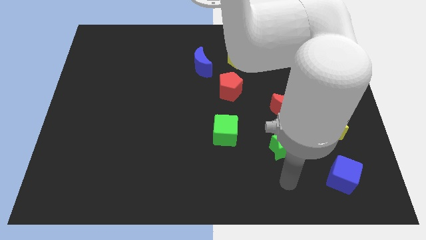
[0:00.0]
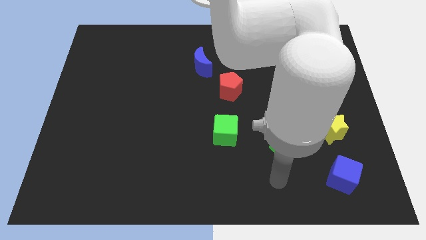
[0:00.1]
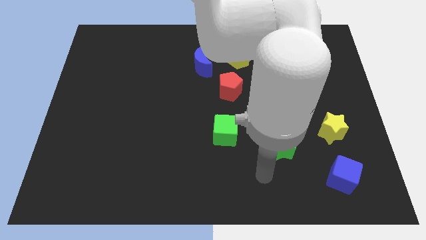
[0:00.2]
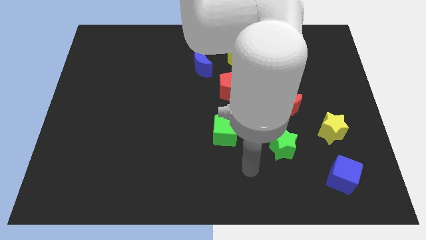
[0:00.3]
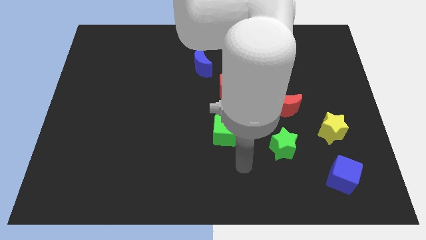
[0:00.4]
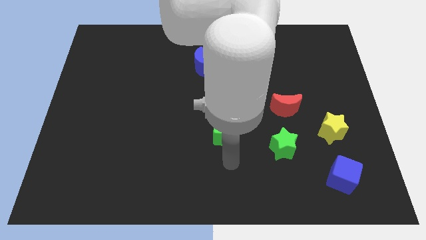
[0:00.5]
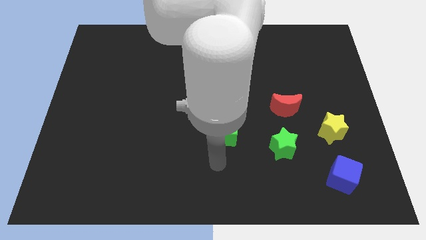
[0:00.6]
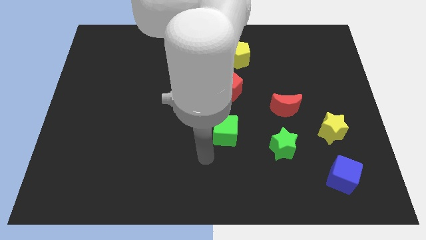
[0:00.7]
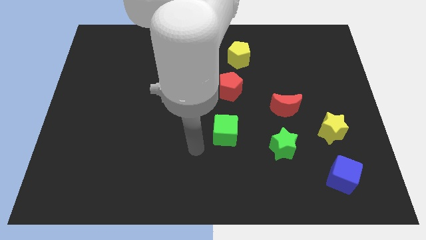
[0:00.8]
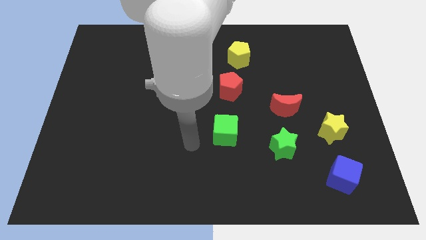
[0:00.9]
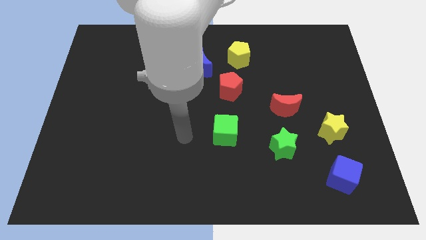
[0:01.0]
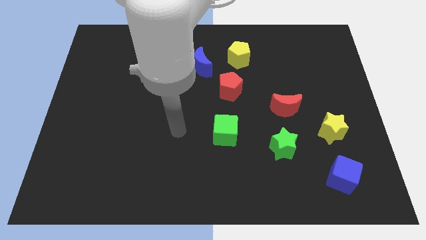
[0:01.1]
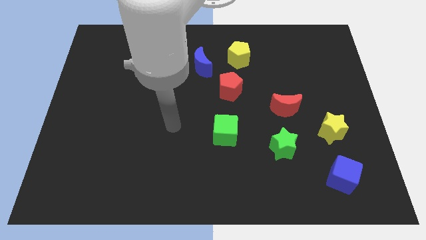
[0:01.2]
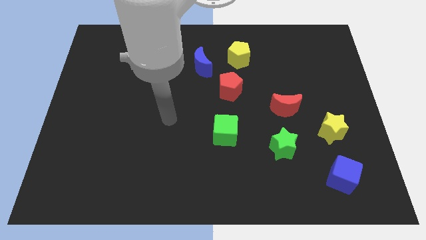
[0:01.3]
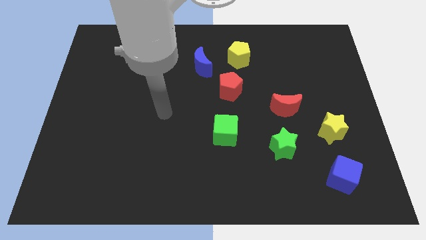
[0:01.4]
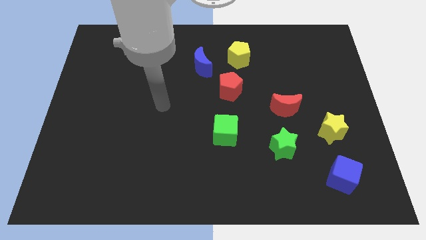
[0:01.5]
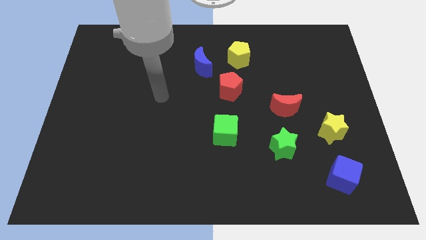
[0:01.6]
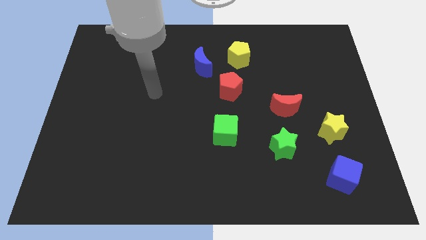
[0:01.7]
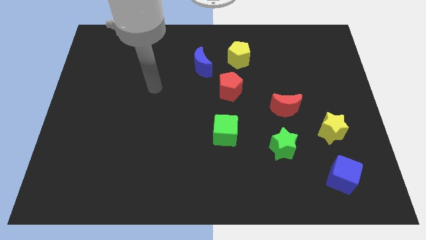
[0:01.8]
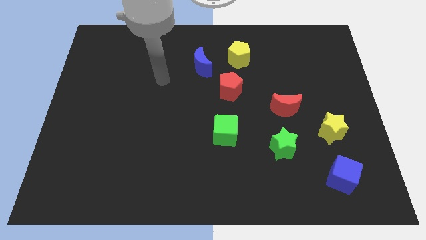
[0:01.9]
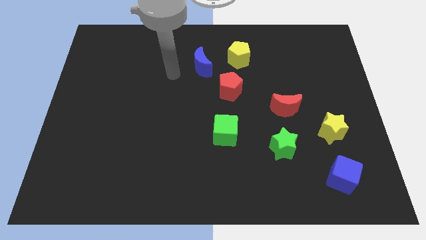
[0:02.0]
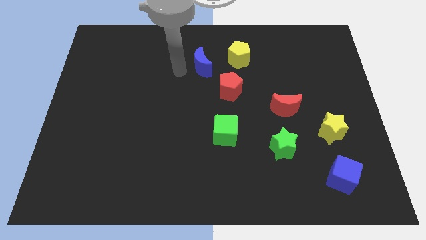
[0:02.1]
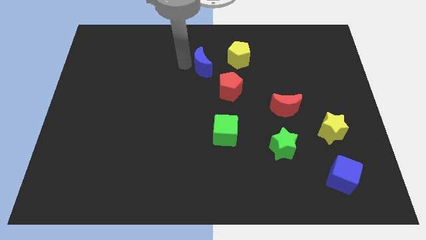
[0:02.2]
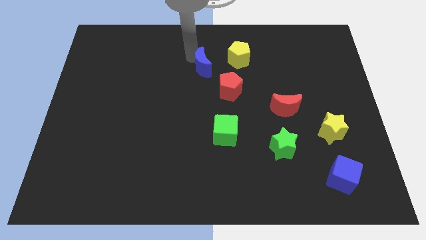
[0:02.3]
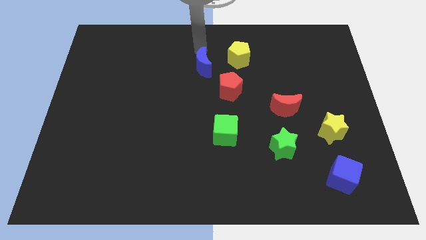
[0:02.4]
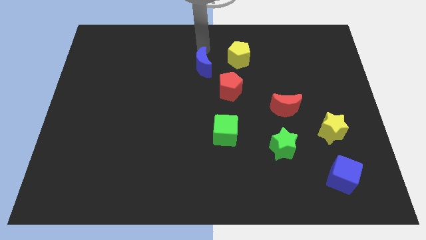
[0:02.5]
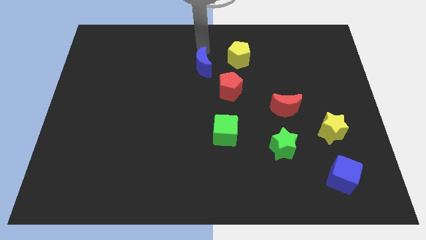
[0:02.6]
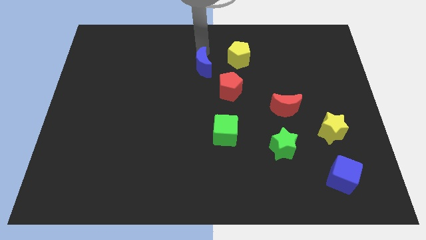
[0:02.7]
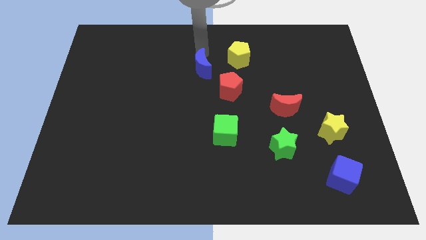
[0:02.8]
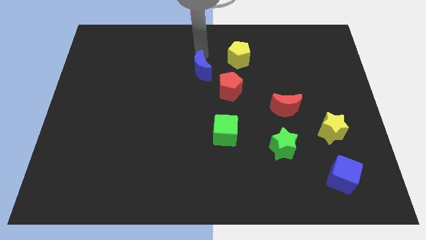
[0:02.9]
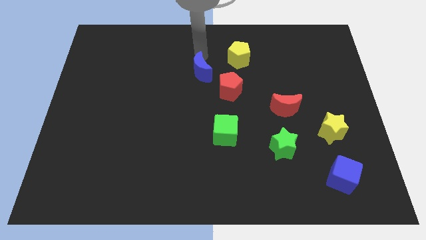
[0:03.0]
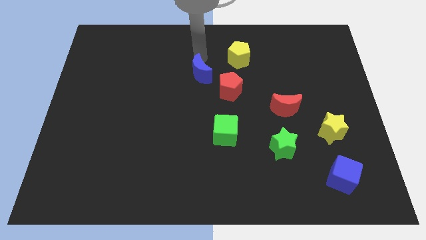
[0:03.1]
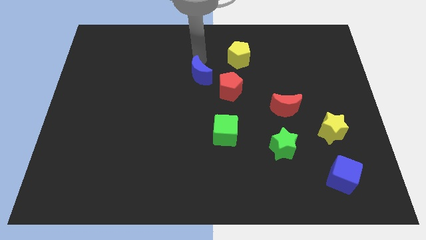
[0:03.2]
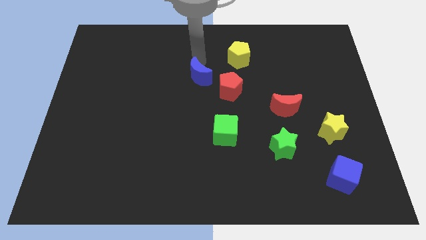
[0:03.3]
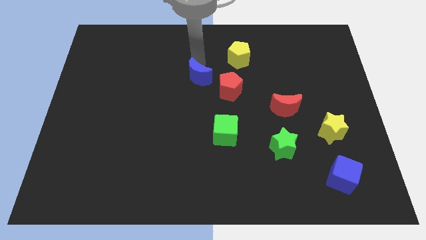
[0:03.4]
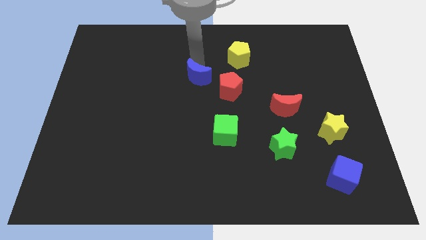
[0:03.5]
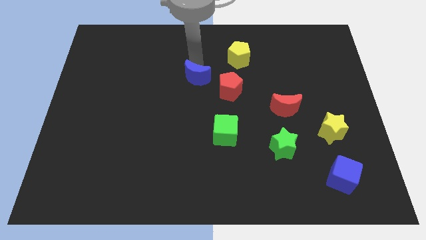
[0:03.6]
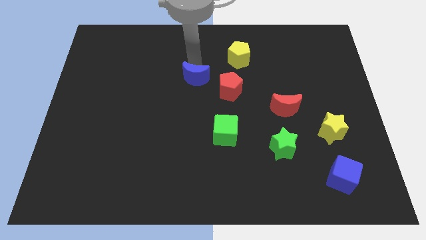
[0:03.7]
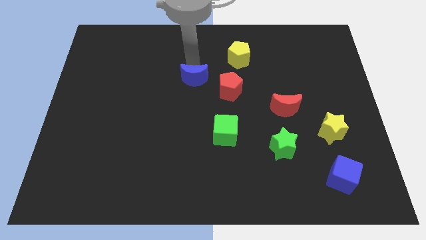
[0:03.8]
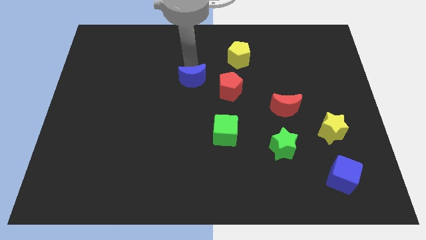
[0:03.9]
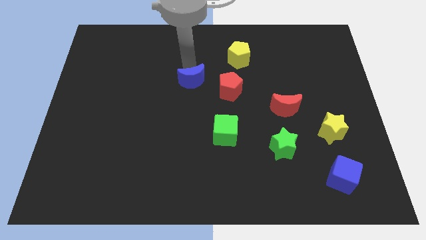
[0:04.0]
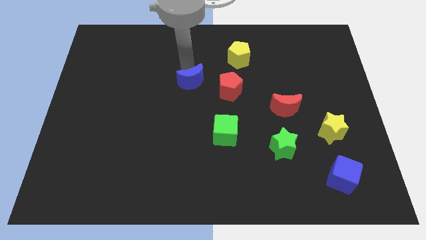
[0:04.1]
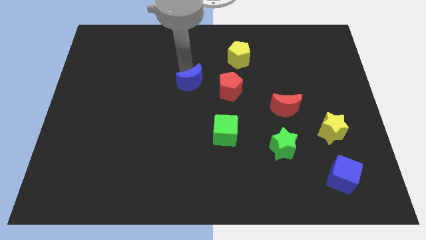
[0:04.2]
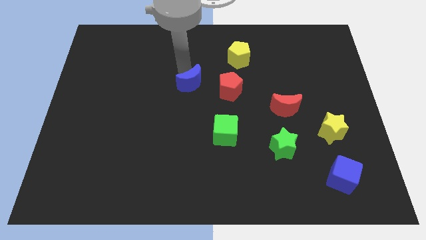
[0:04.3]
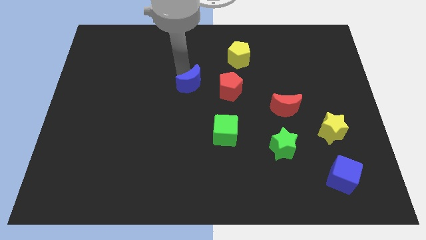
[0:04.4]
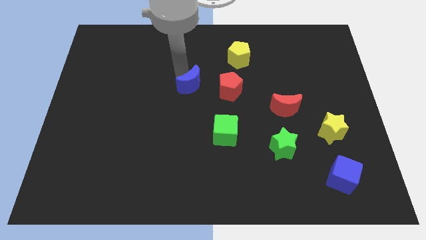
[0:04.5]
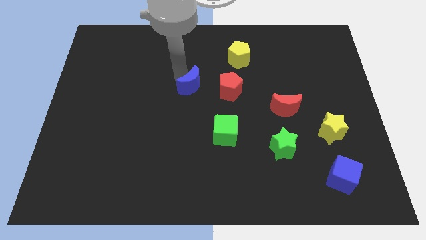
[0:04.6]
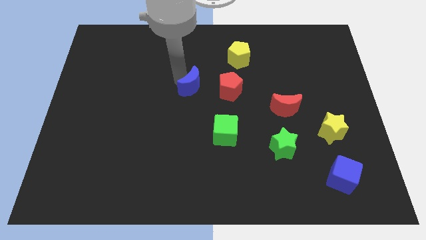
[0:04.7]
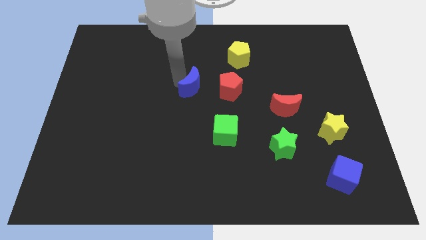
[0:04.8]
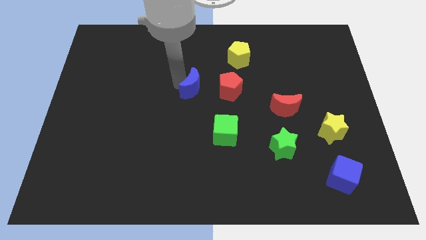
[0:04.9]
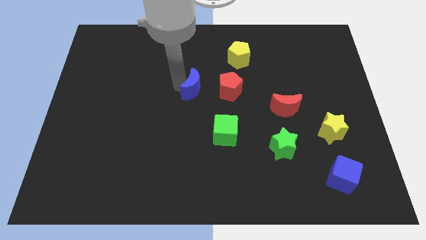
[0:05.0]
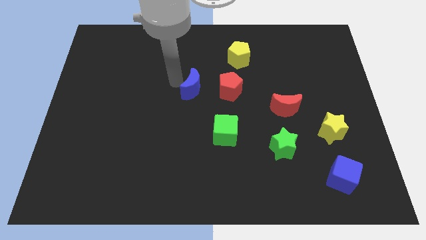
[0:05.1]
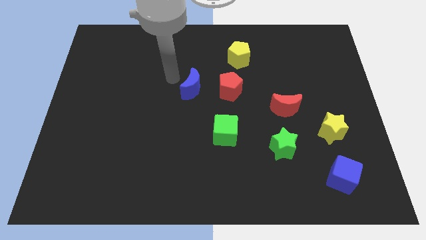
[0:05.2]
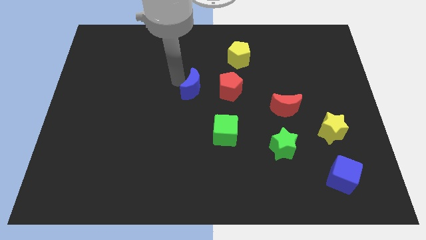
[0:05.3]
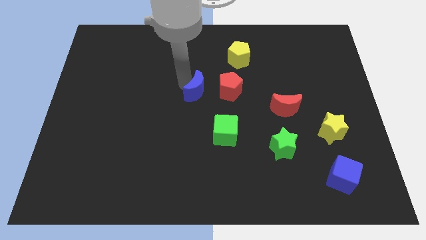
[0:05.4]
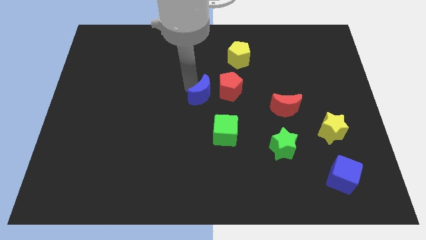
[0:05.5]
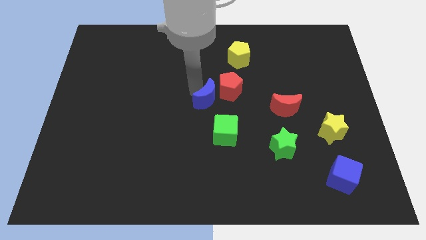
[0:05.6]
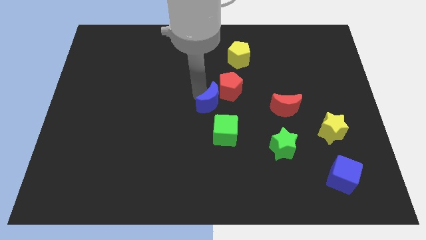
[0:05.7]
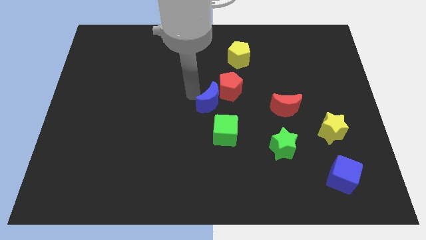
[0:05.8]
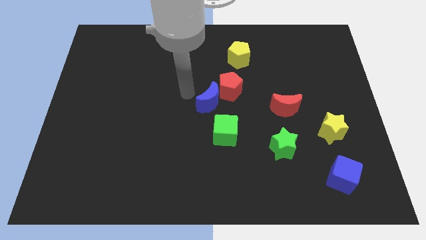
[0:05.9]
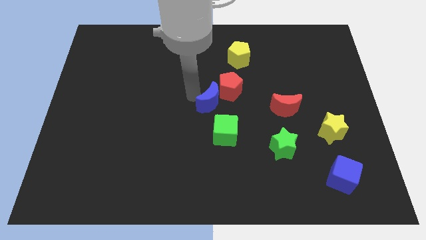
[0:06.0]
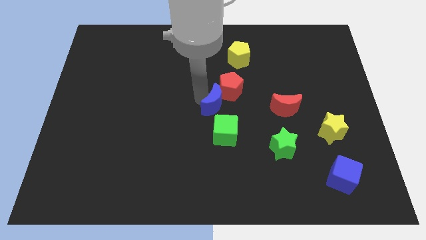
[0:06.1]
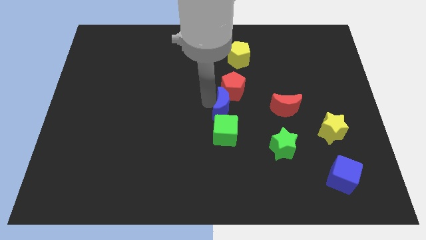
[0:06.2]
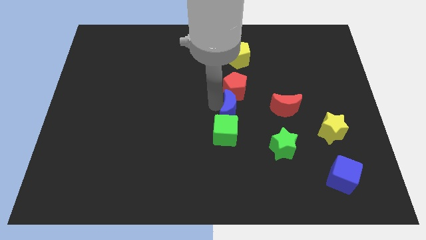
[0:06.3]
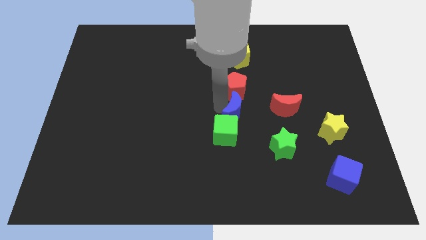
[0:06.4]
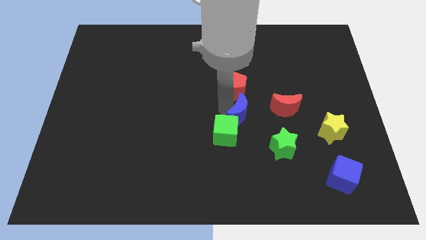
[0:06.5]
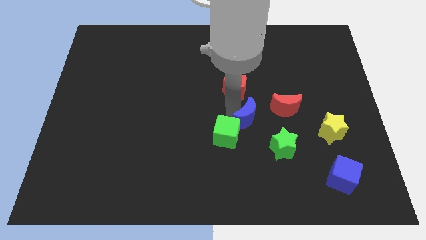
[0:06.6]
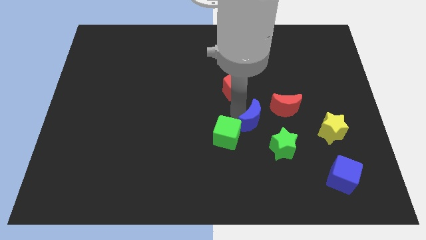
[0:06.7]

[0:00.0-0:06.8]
move the blue moon diagonally down and right

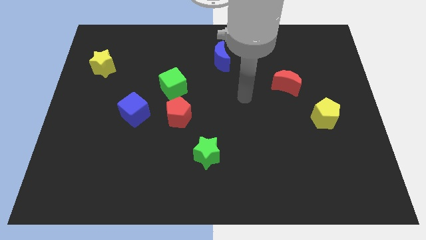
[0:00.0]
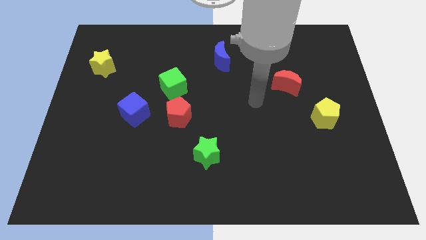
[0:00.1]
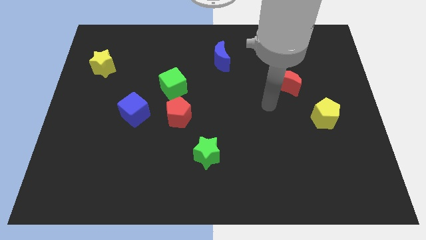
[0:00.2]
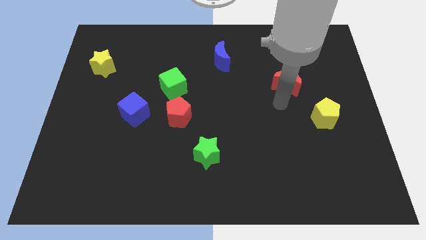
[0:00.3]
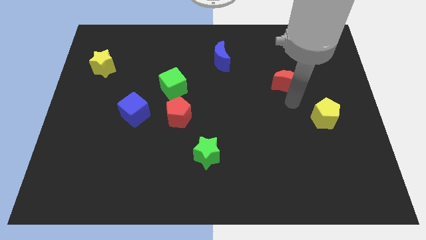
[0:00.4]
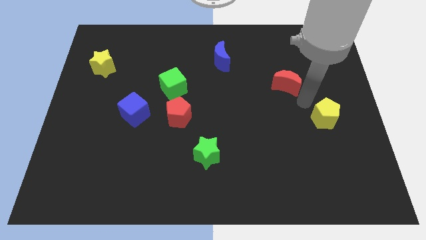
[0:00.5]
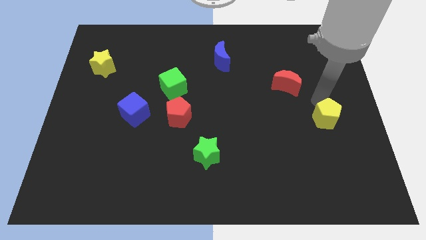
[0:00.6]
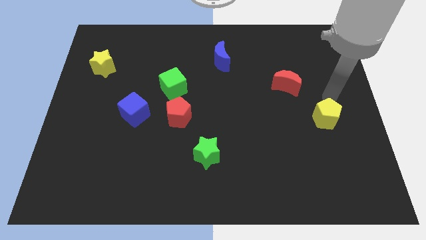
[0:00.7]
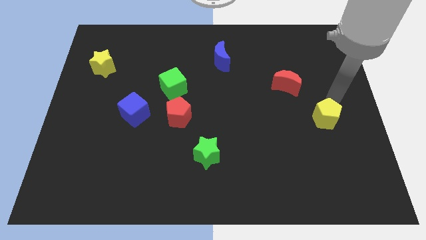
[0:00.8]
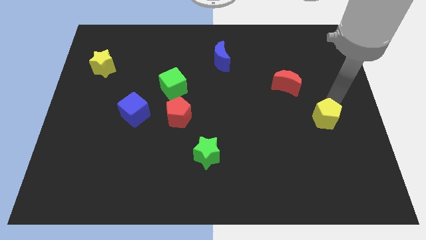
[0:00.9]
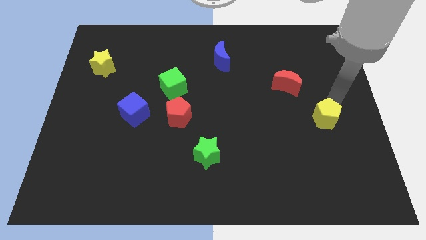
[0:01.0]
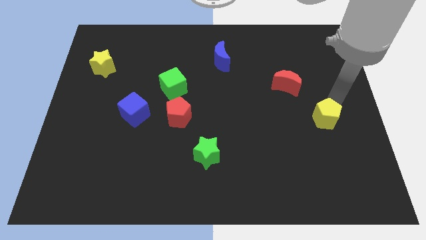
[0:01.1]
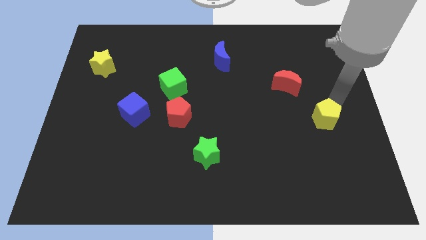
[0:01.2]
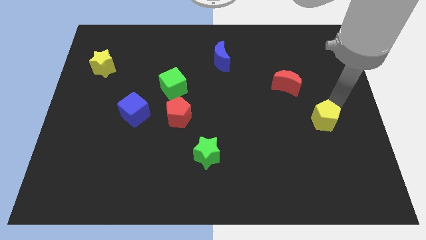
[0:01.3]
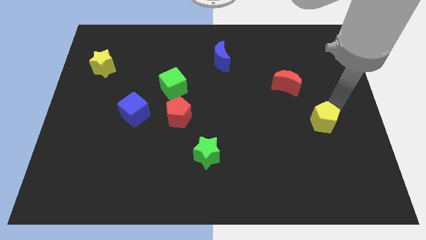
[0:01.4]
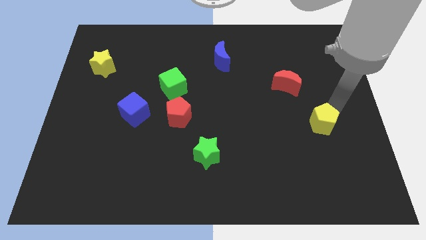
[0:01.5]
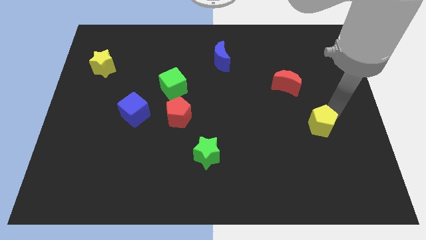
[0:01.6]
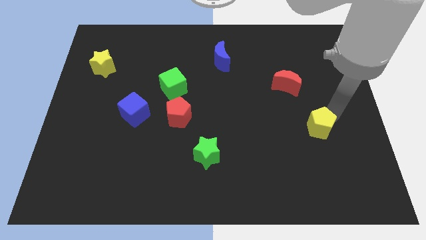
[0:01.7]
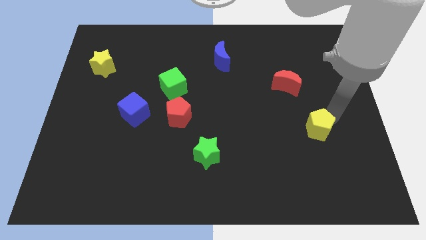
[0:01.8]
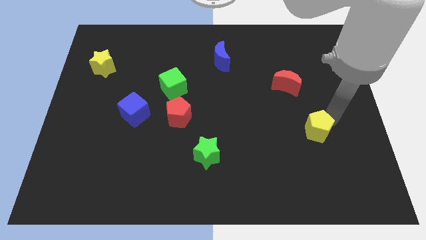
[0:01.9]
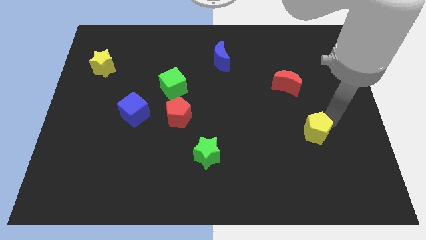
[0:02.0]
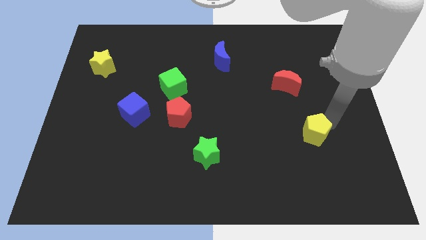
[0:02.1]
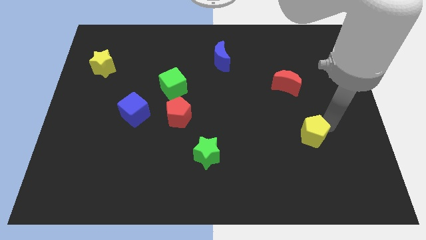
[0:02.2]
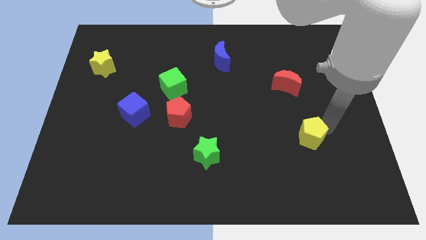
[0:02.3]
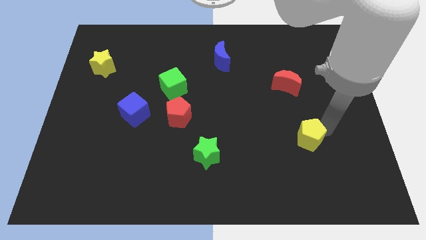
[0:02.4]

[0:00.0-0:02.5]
move the yellow pentagon slightly down and to the left
